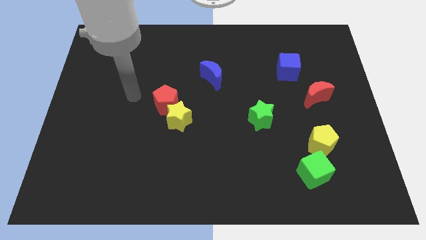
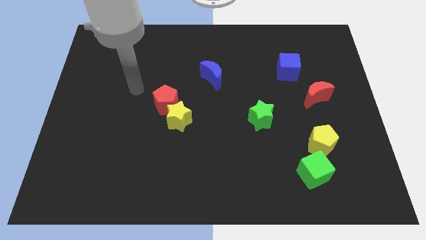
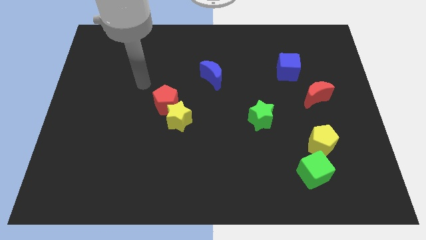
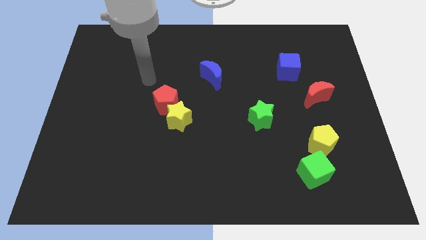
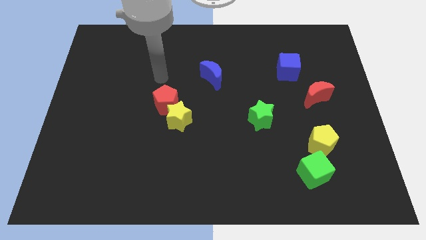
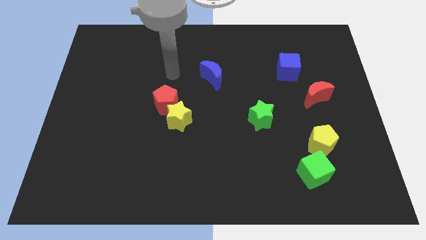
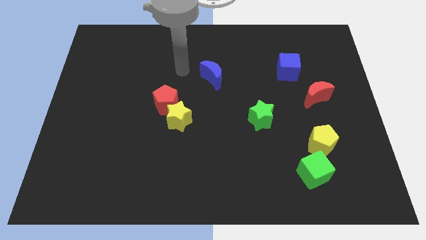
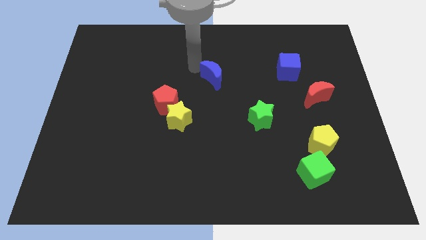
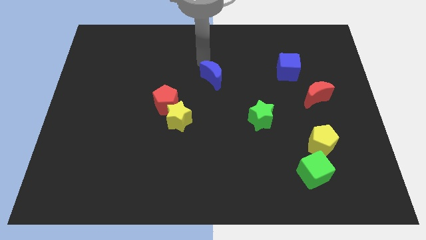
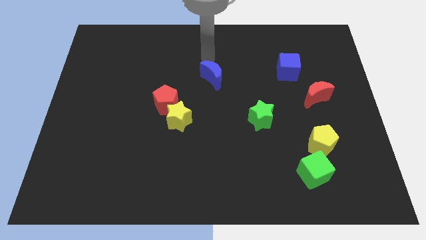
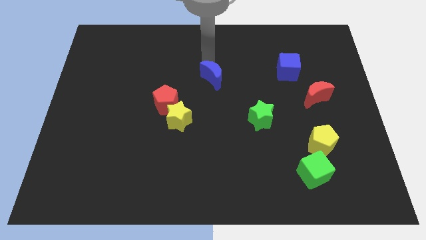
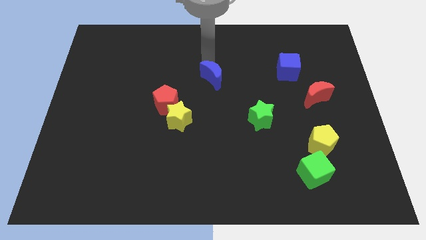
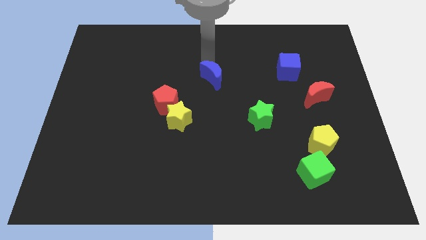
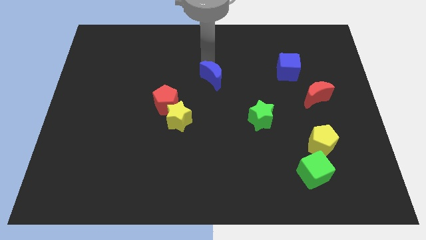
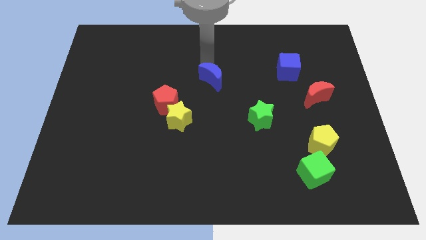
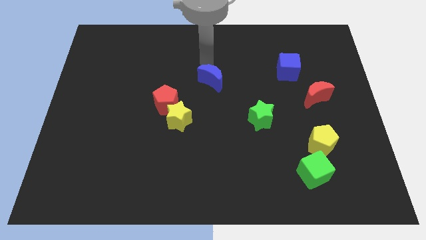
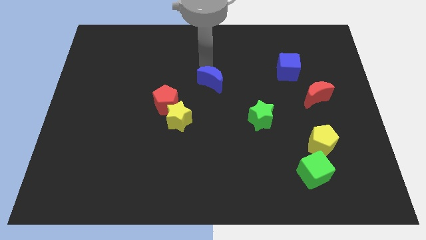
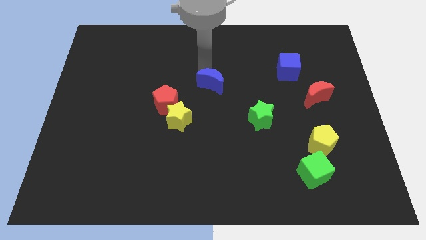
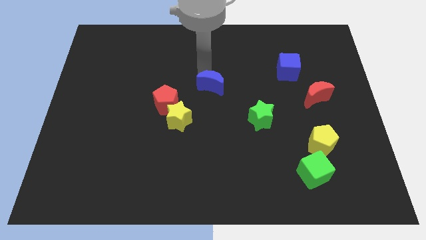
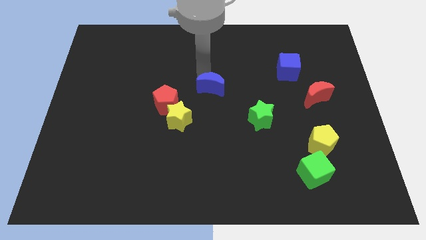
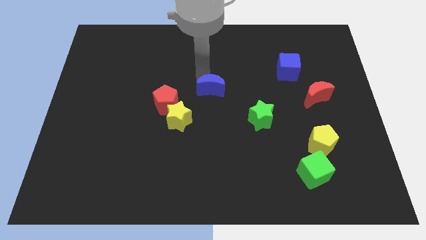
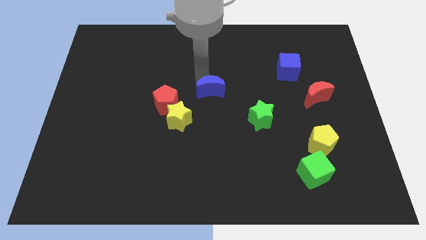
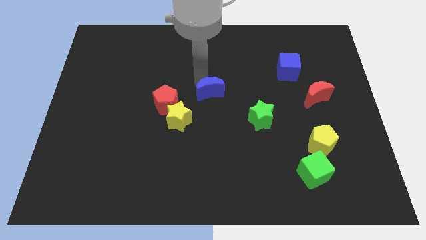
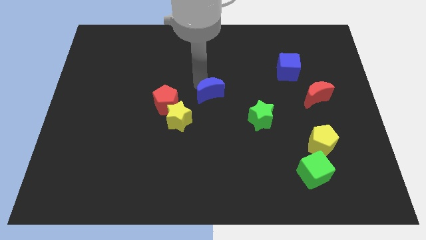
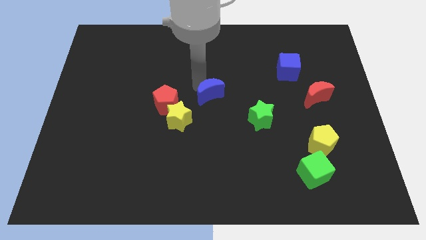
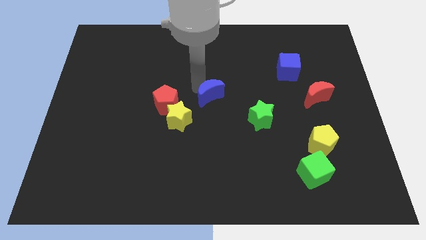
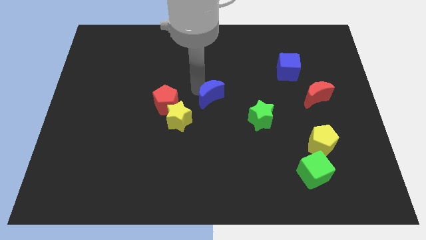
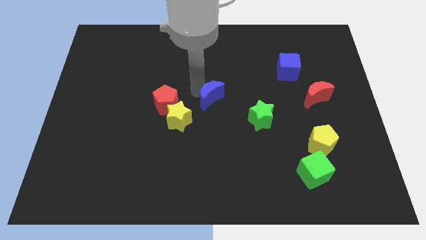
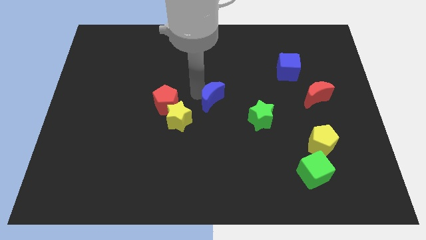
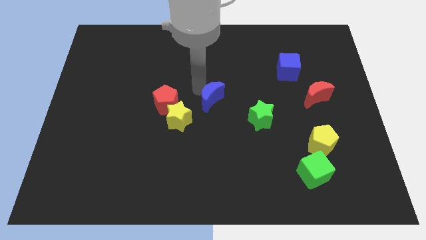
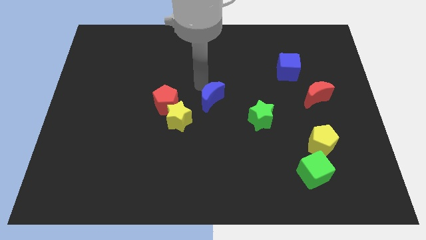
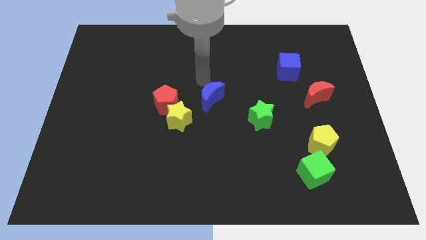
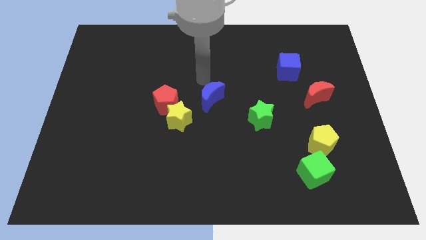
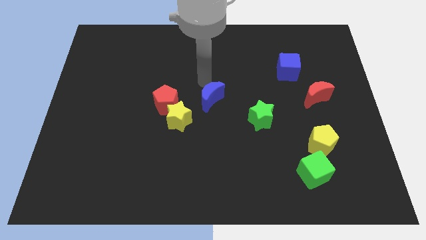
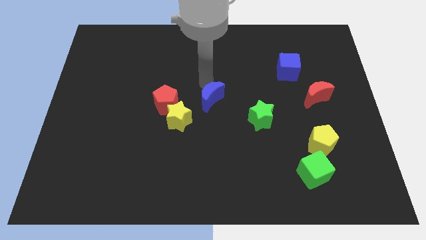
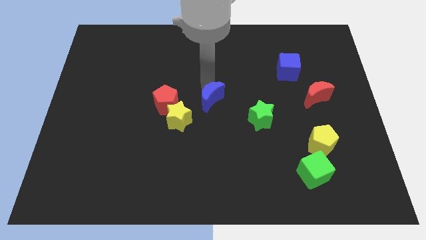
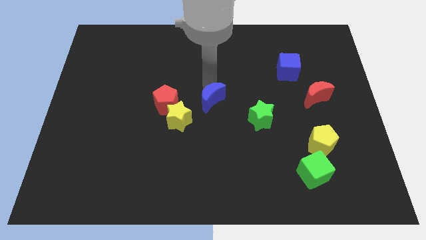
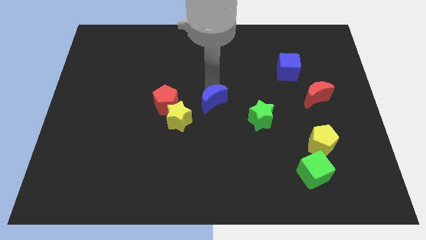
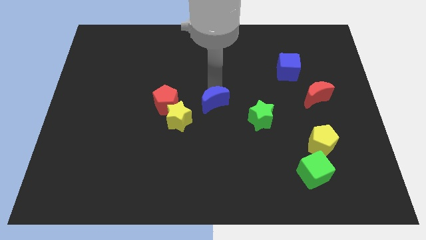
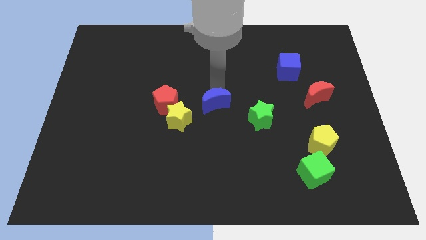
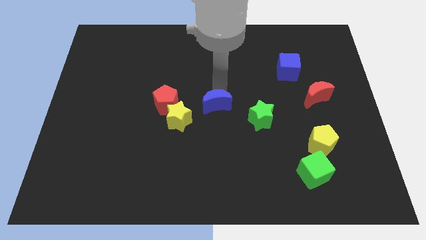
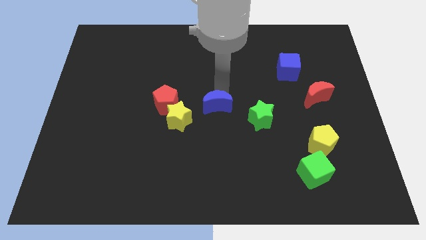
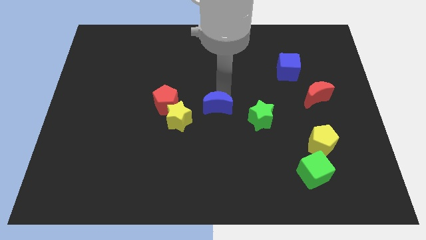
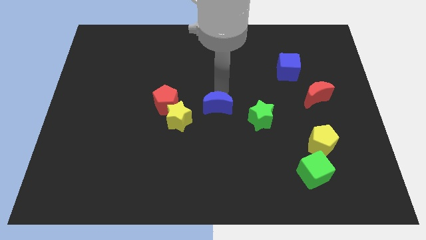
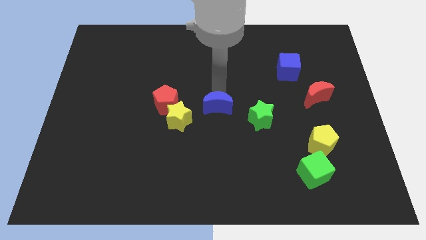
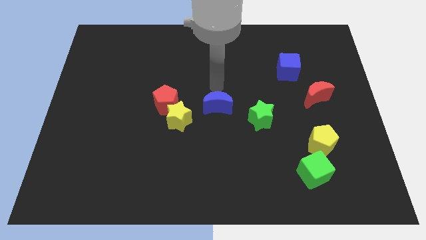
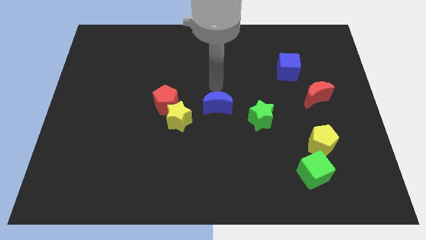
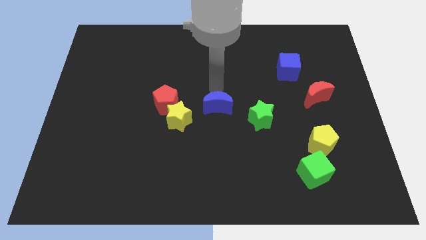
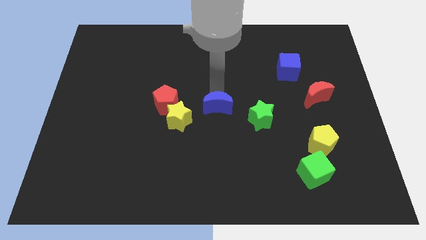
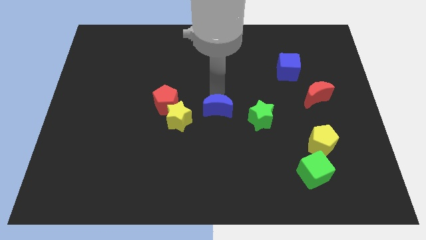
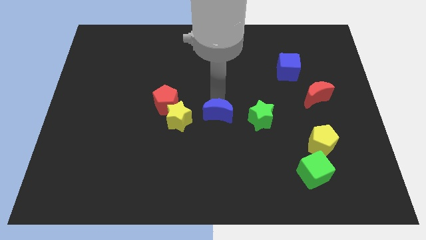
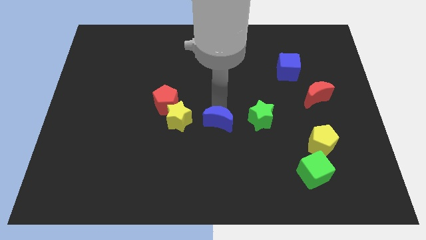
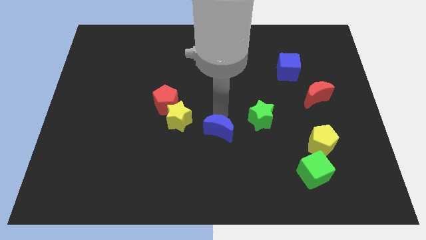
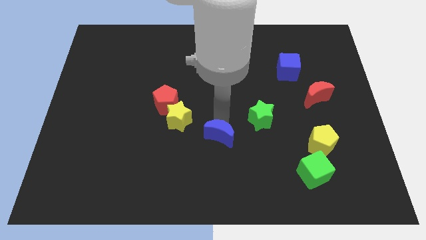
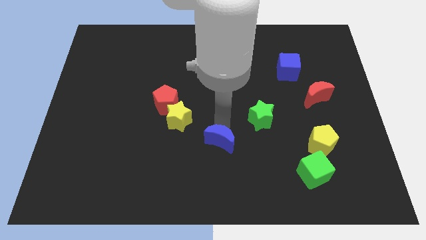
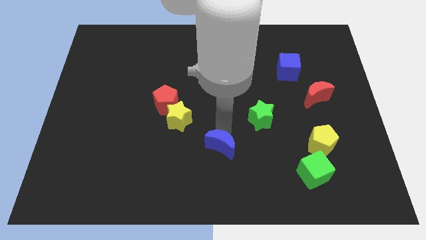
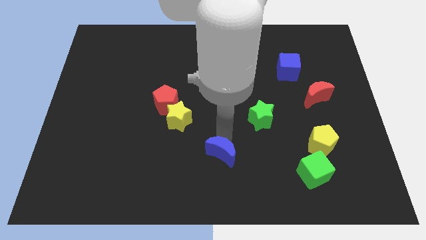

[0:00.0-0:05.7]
push the blue moon to the bottom side

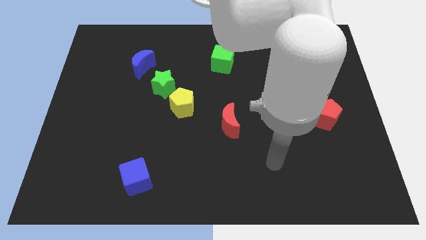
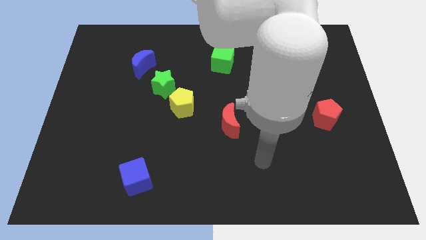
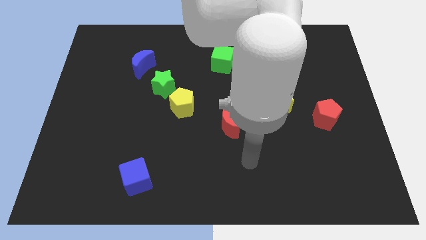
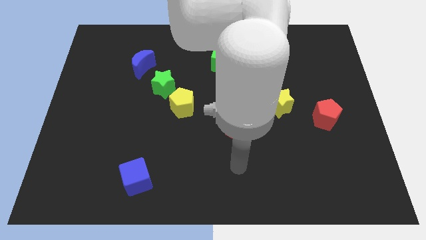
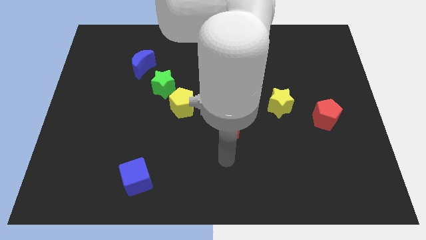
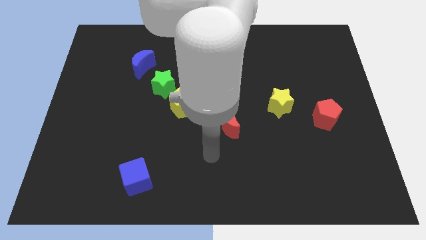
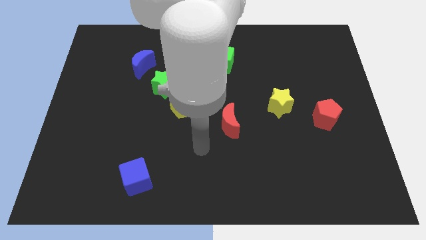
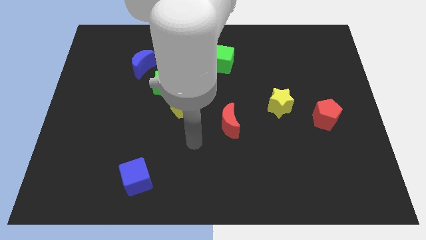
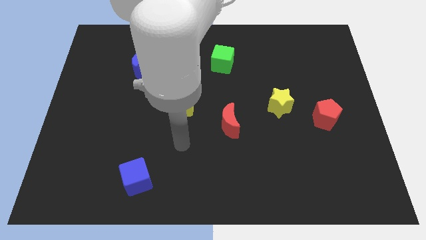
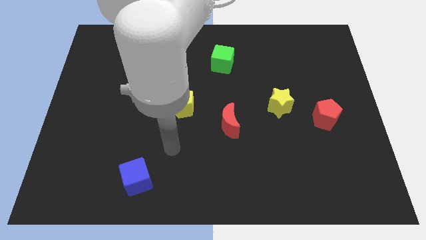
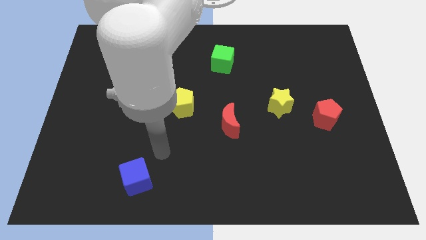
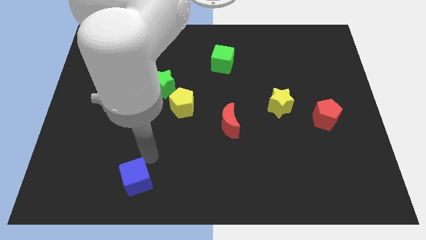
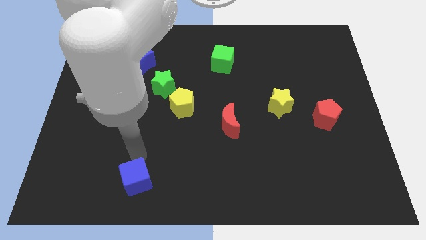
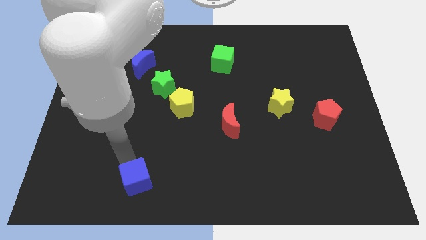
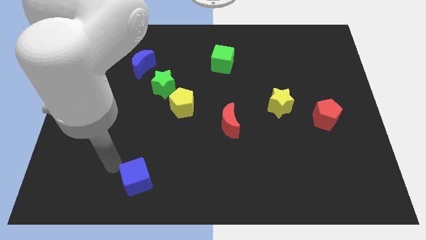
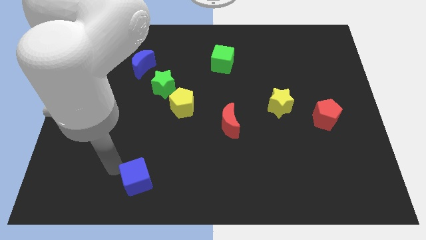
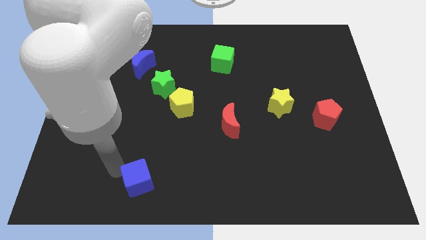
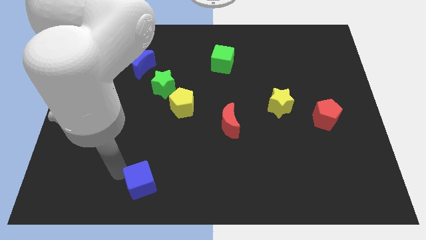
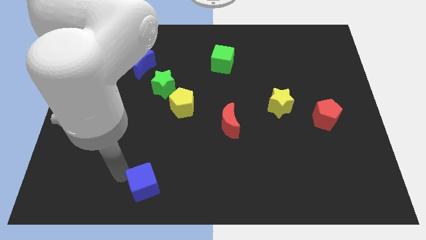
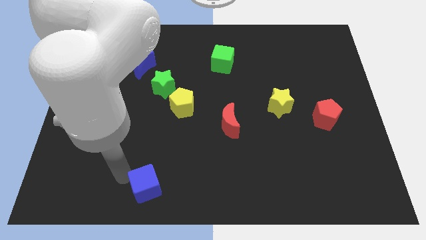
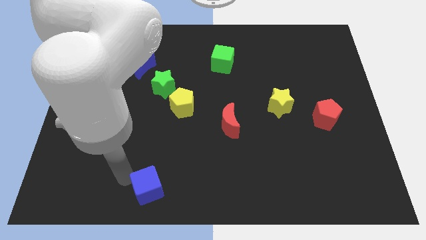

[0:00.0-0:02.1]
move the blue cube to the bottom
